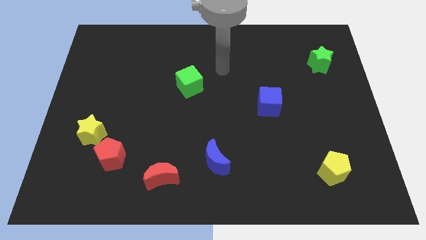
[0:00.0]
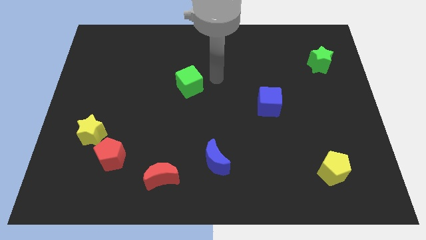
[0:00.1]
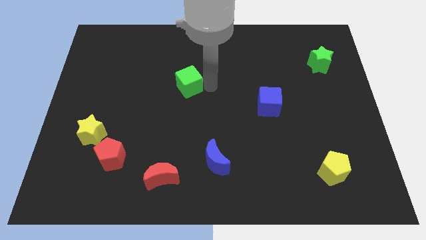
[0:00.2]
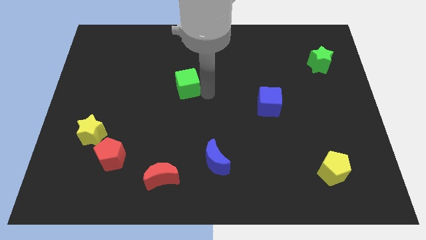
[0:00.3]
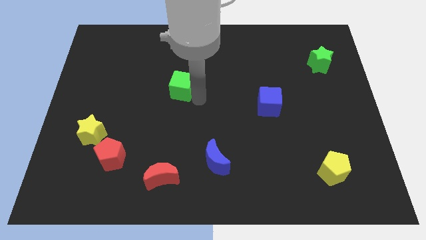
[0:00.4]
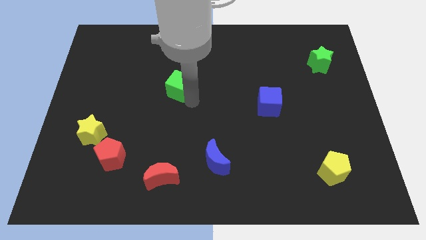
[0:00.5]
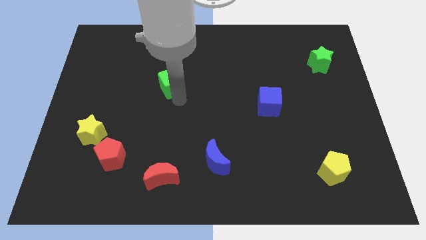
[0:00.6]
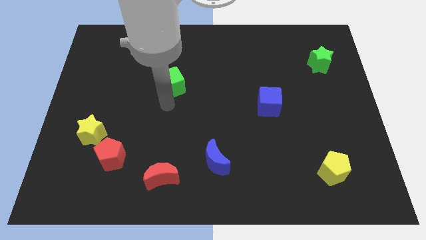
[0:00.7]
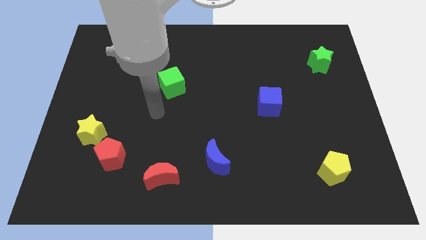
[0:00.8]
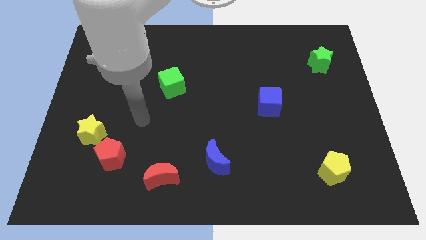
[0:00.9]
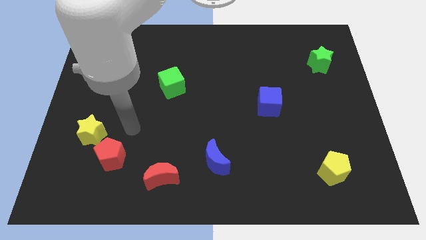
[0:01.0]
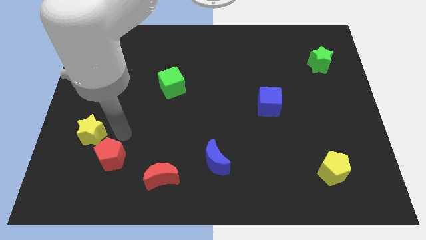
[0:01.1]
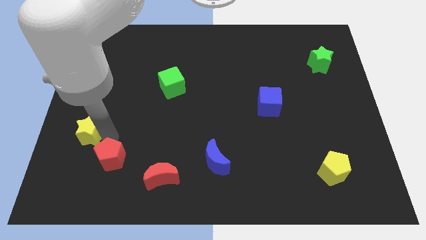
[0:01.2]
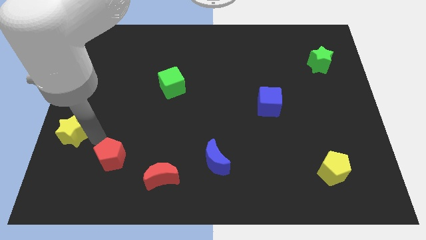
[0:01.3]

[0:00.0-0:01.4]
pull the red pentagon apart from the yellow star

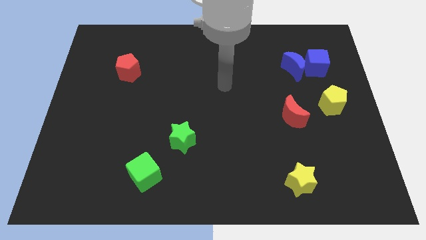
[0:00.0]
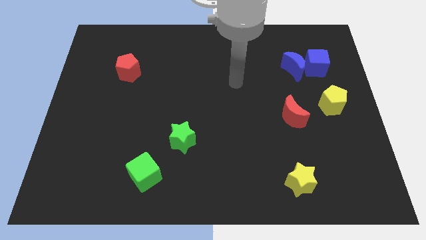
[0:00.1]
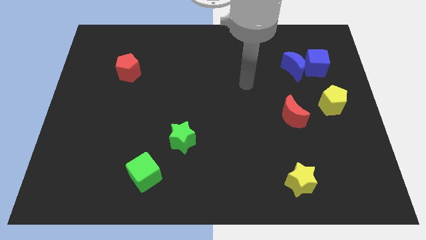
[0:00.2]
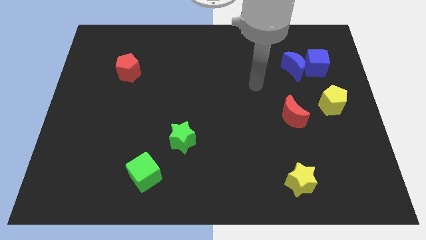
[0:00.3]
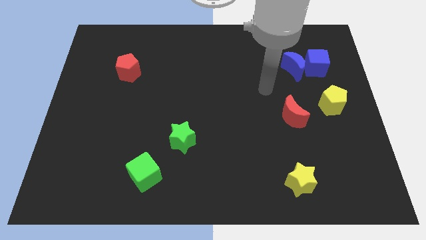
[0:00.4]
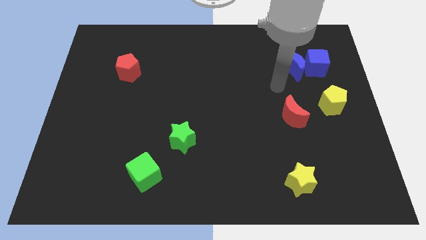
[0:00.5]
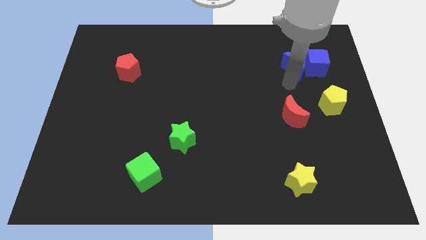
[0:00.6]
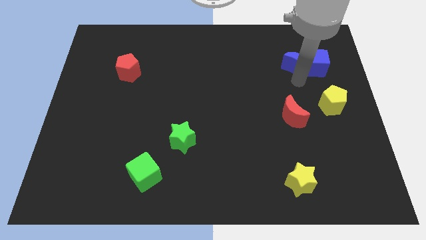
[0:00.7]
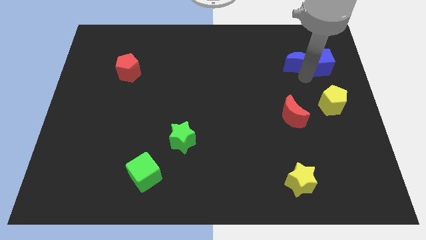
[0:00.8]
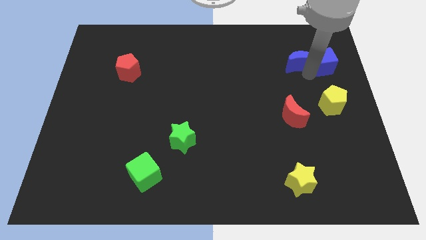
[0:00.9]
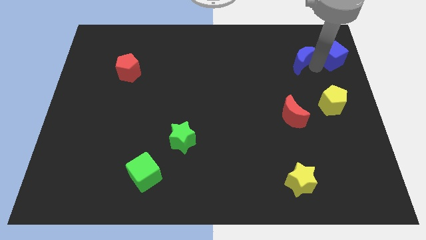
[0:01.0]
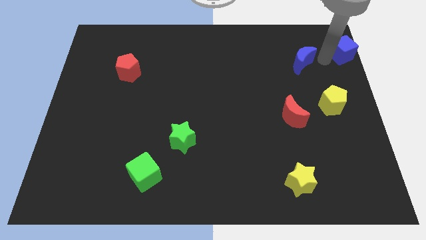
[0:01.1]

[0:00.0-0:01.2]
move the blue moon away from the blue cube

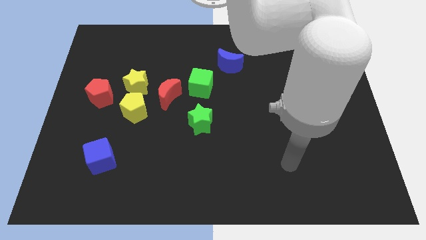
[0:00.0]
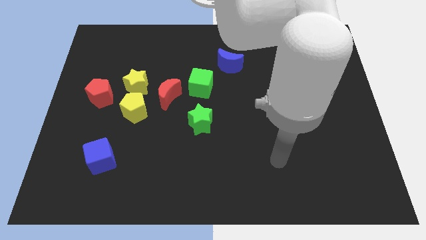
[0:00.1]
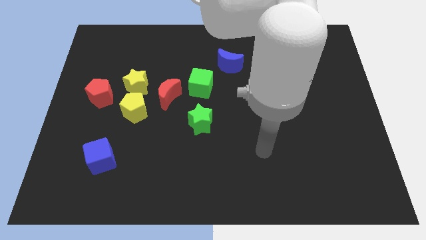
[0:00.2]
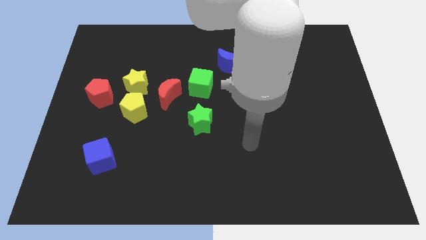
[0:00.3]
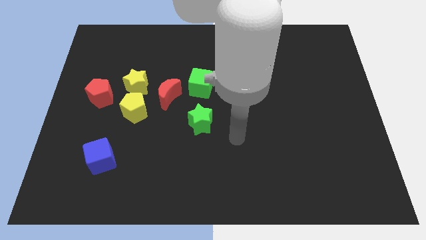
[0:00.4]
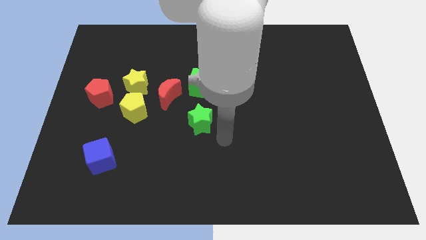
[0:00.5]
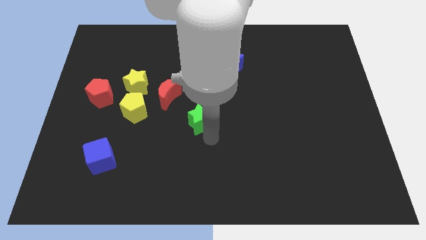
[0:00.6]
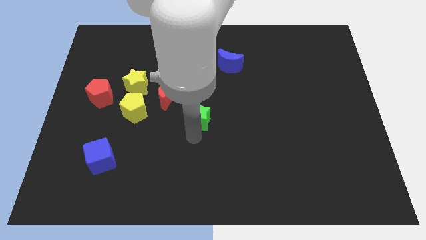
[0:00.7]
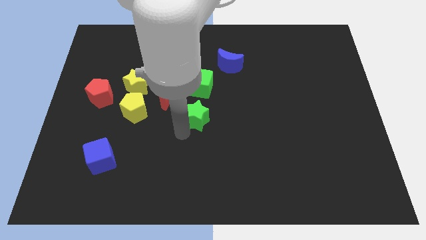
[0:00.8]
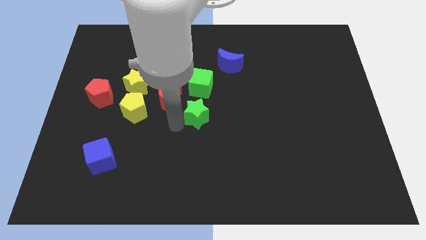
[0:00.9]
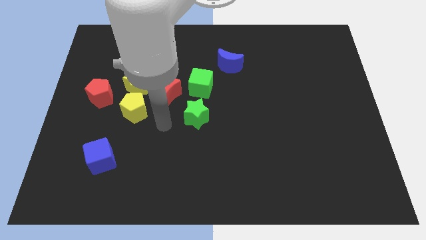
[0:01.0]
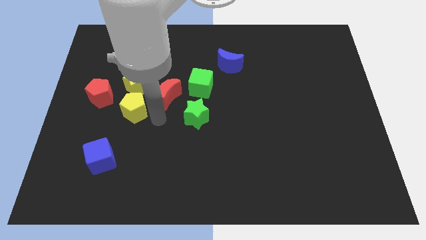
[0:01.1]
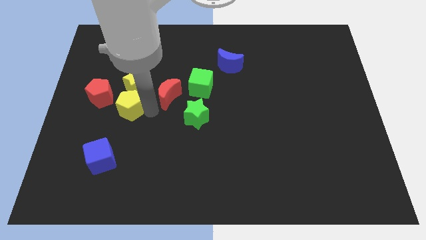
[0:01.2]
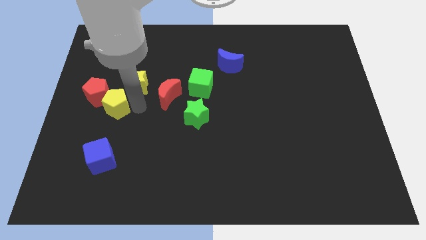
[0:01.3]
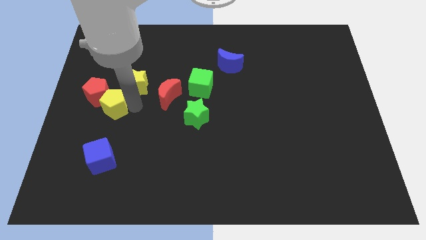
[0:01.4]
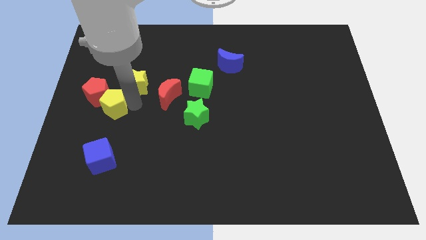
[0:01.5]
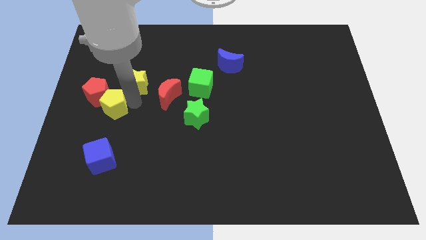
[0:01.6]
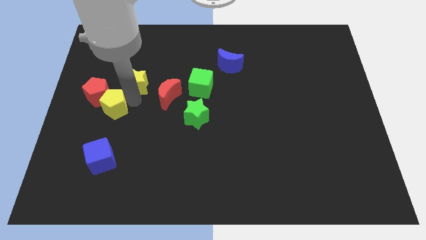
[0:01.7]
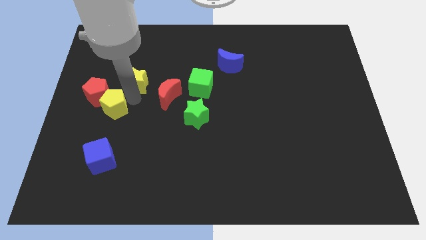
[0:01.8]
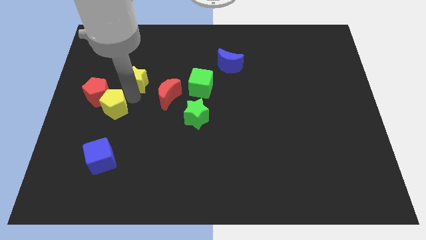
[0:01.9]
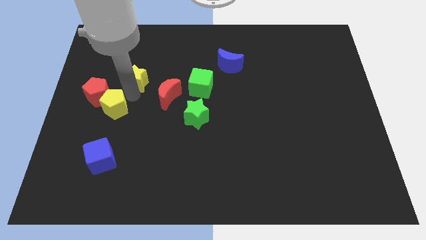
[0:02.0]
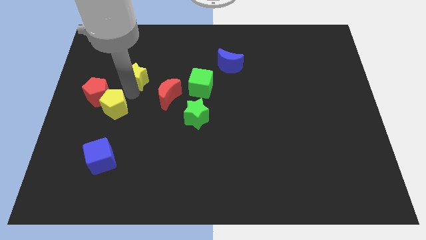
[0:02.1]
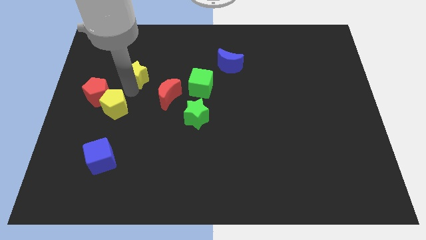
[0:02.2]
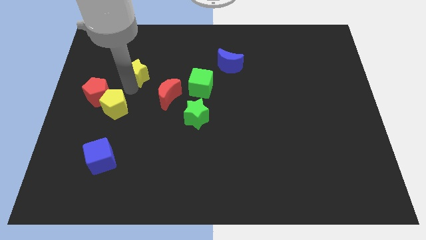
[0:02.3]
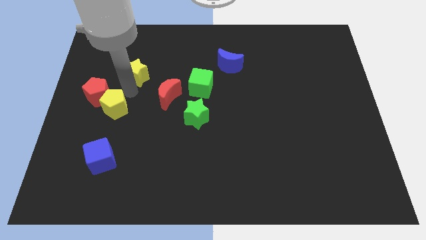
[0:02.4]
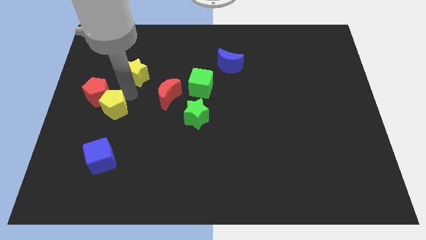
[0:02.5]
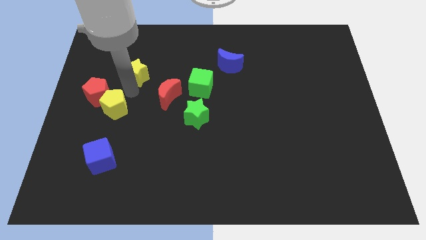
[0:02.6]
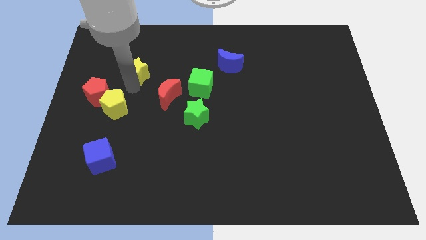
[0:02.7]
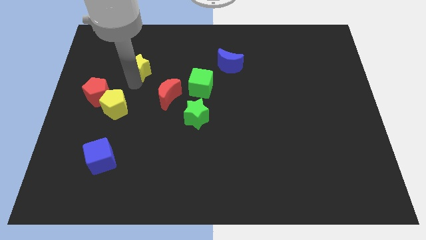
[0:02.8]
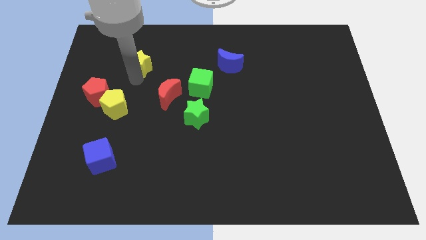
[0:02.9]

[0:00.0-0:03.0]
move the yellow star away from the yellow pentagon, red moon, and red pentagon

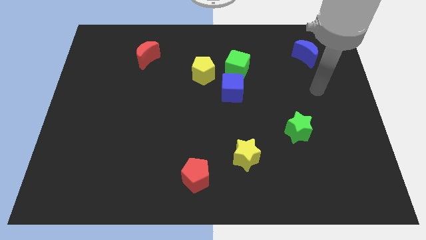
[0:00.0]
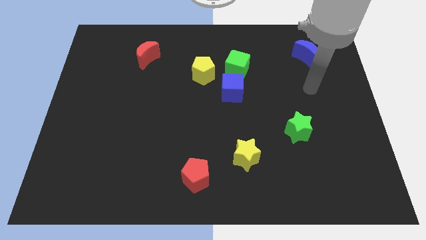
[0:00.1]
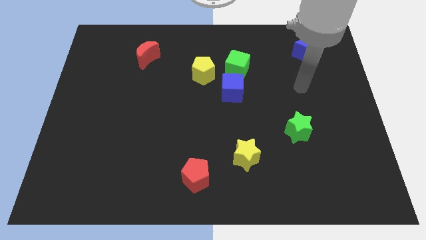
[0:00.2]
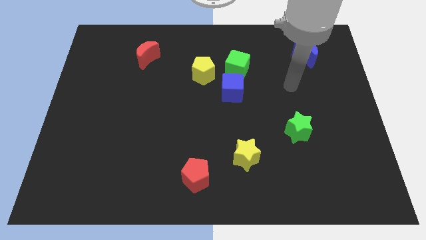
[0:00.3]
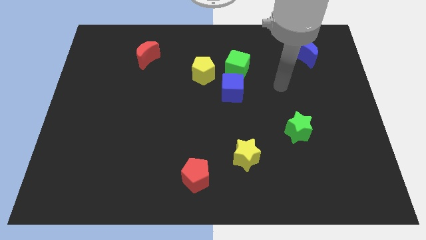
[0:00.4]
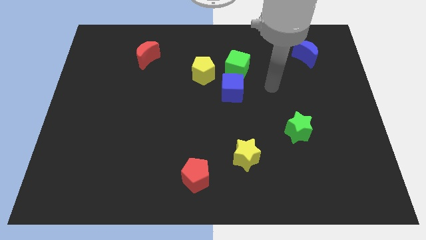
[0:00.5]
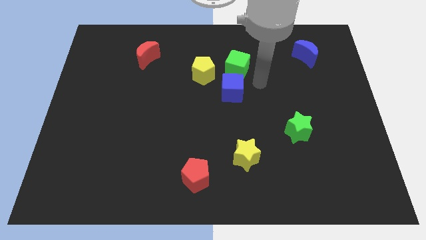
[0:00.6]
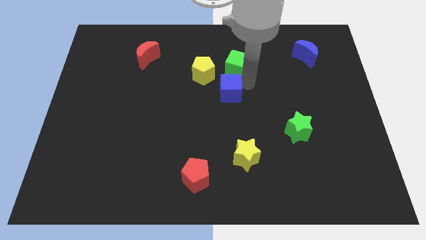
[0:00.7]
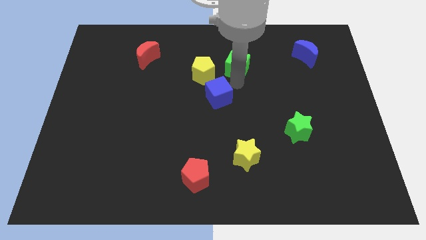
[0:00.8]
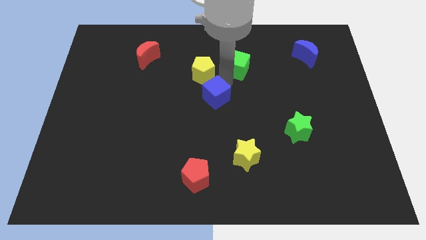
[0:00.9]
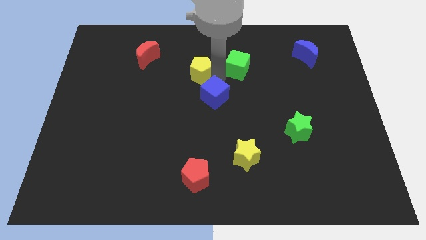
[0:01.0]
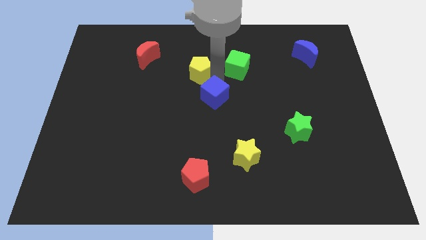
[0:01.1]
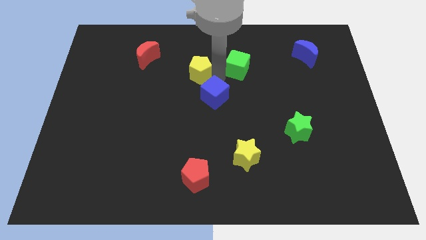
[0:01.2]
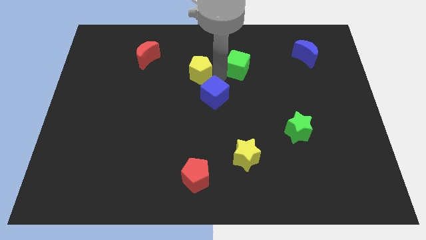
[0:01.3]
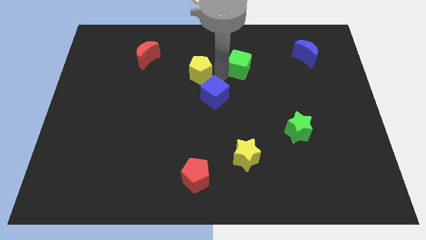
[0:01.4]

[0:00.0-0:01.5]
pull the green cube apart from the blue cube and yellow pentagon

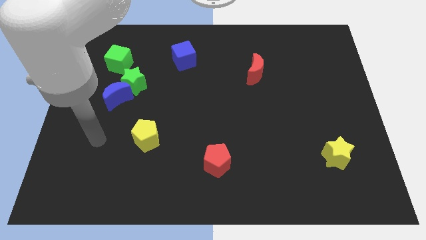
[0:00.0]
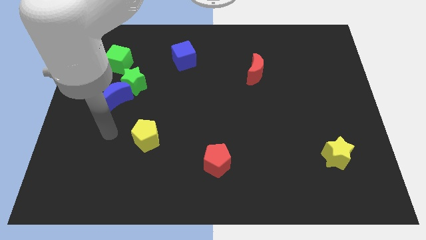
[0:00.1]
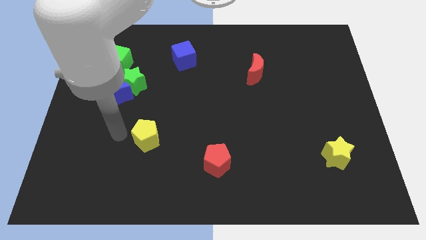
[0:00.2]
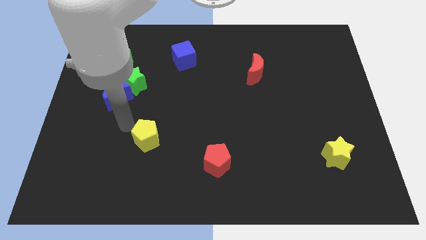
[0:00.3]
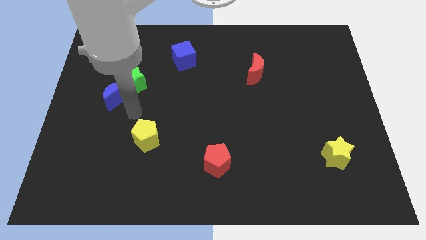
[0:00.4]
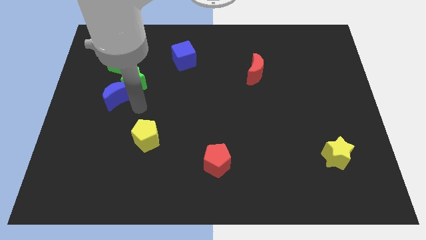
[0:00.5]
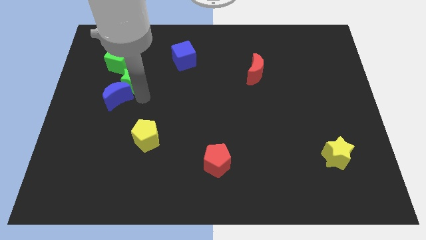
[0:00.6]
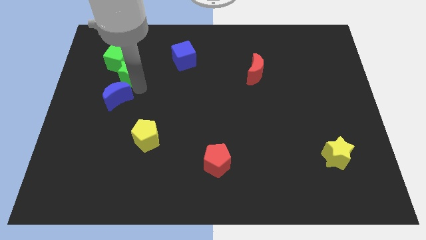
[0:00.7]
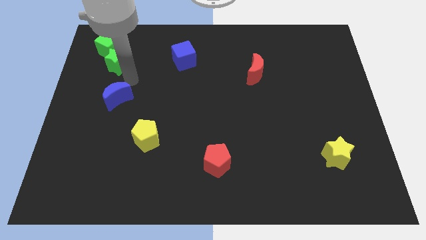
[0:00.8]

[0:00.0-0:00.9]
move the blue moon away from the green star

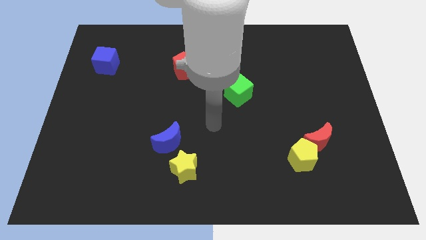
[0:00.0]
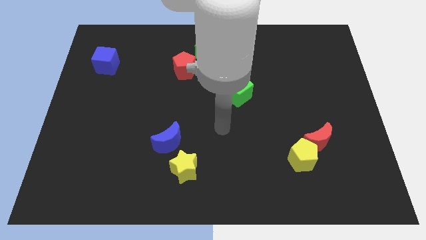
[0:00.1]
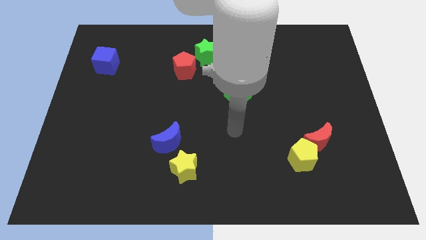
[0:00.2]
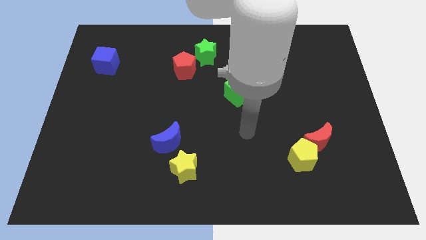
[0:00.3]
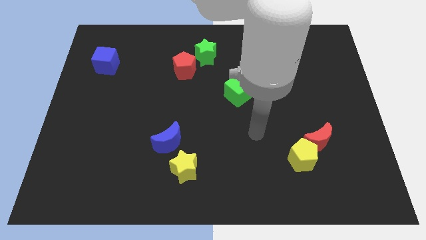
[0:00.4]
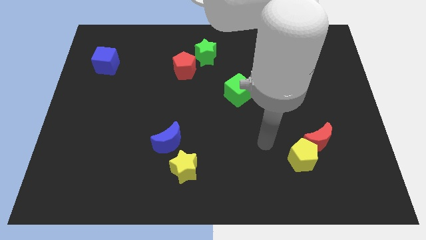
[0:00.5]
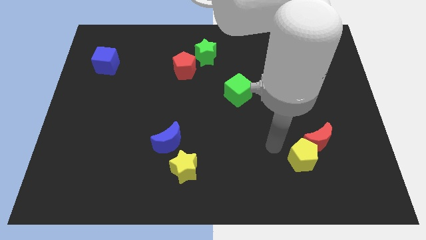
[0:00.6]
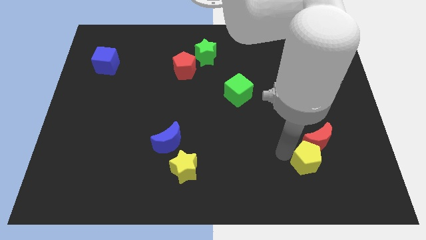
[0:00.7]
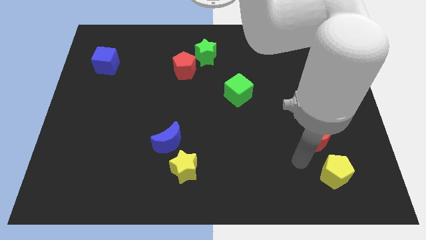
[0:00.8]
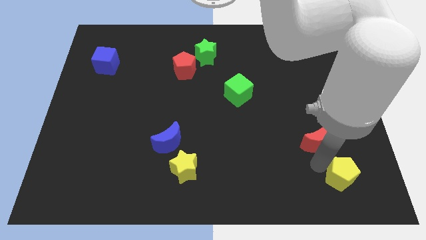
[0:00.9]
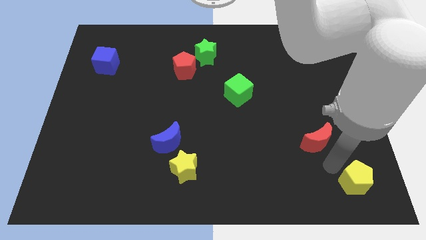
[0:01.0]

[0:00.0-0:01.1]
move the red moon away from the yellow pentagon
